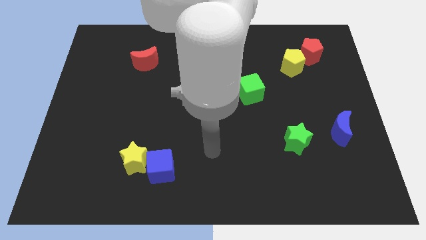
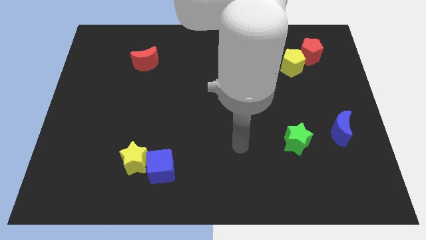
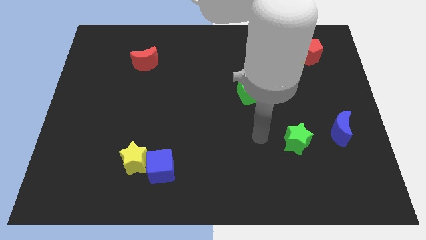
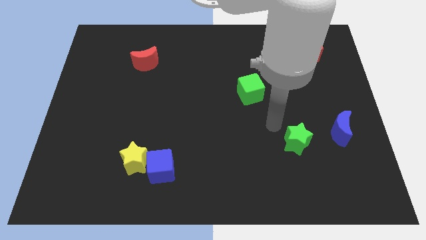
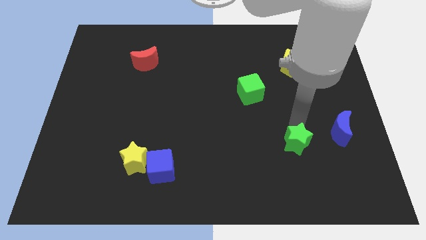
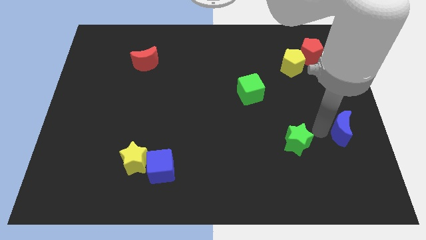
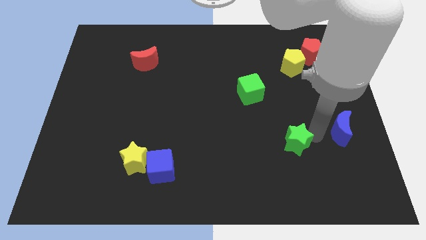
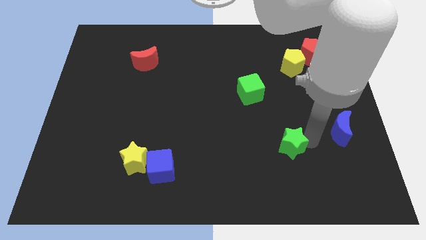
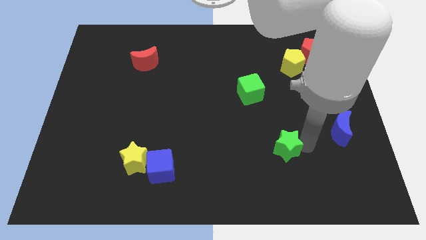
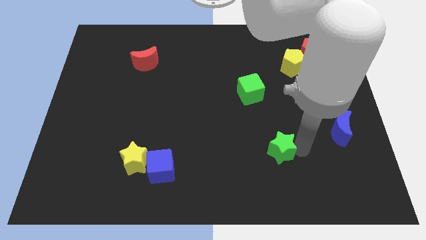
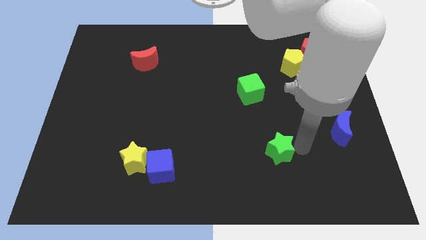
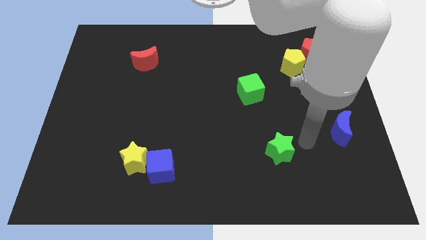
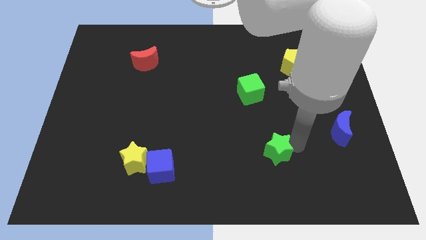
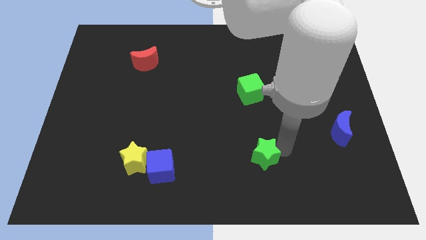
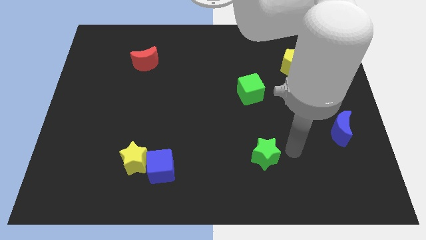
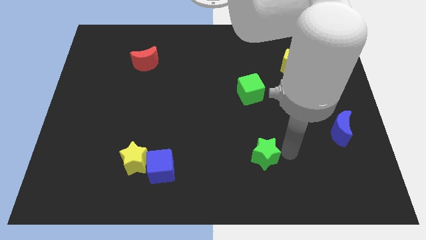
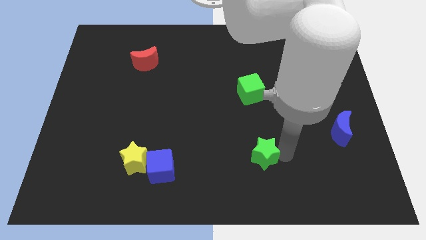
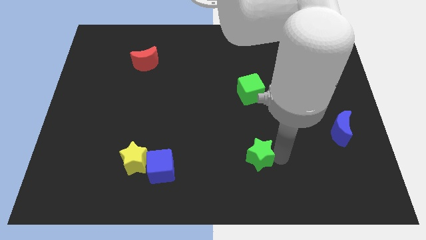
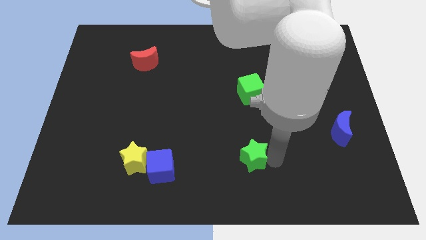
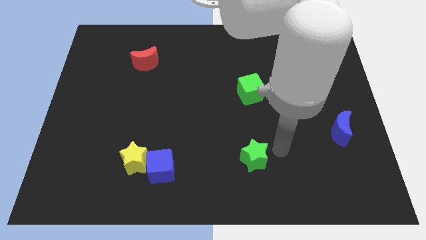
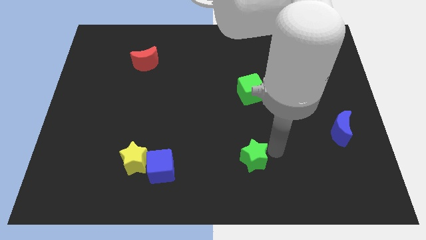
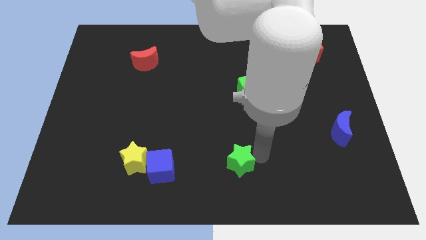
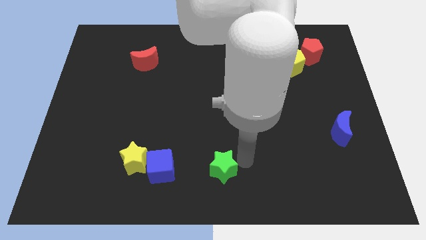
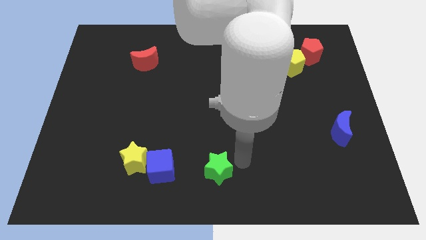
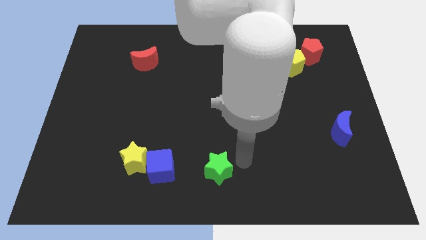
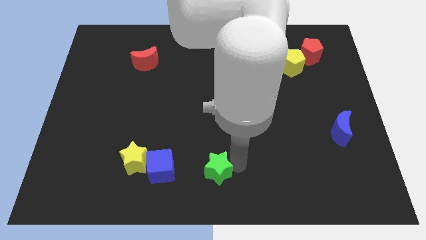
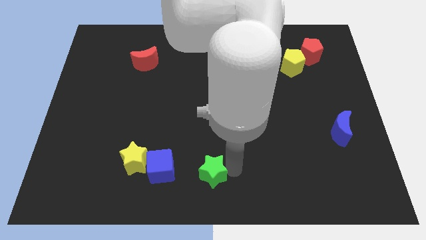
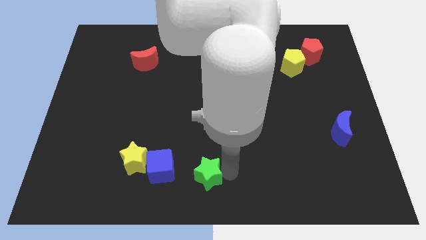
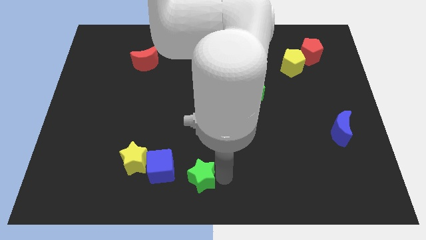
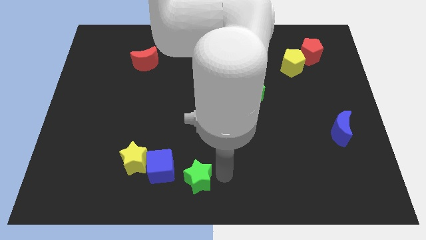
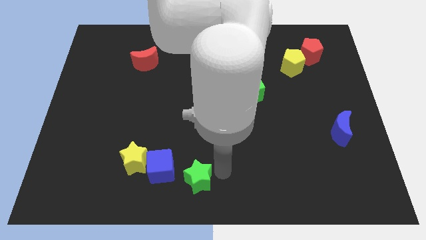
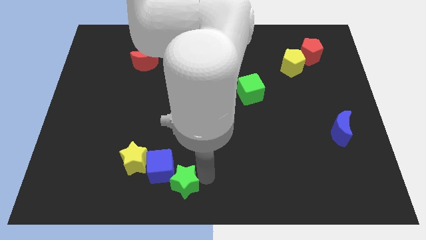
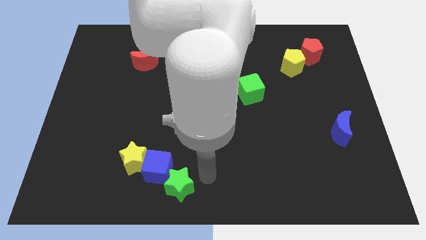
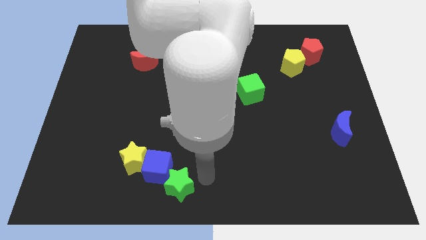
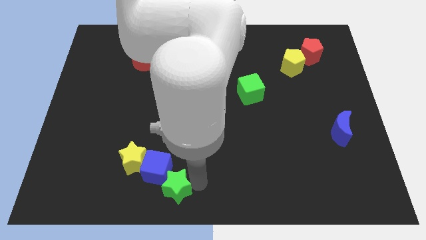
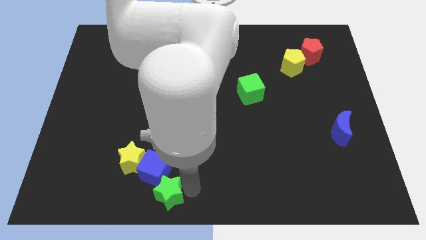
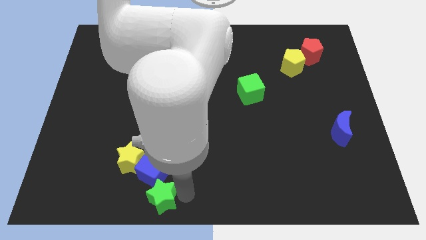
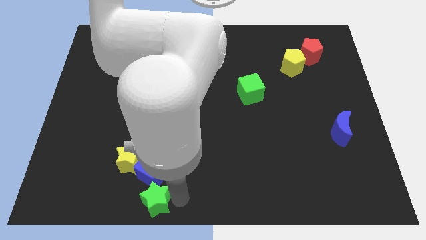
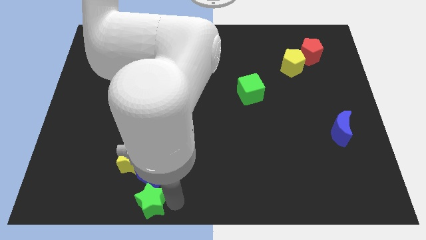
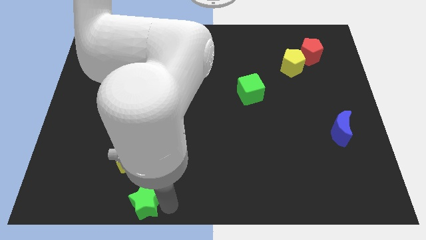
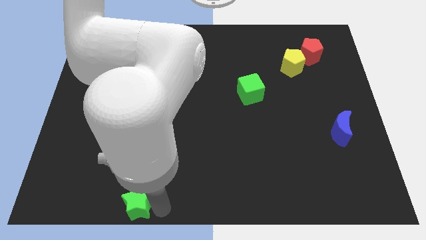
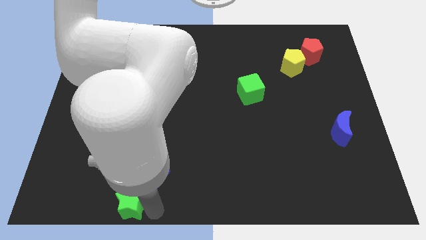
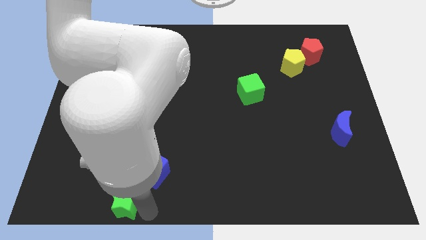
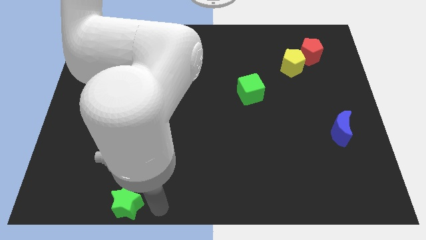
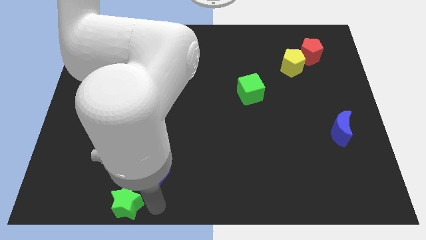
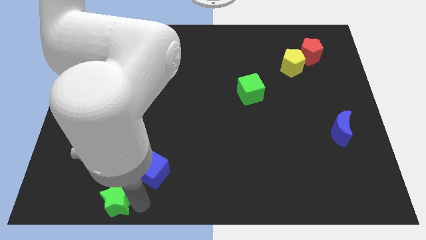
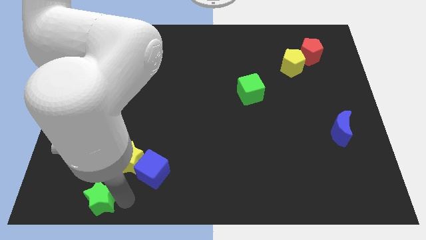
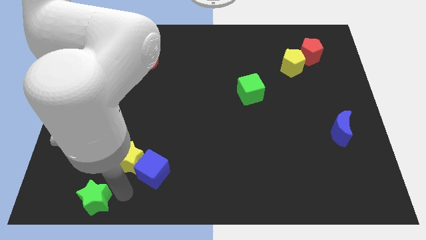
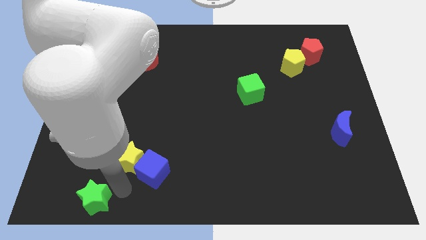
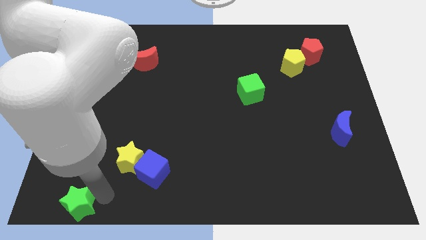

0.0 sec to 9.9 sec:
move the green star to the lower left corner

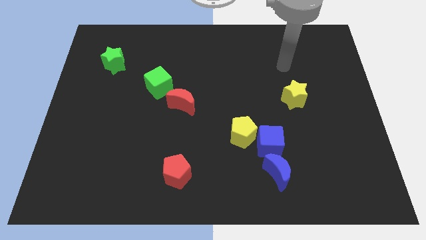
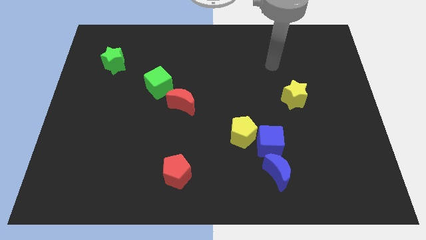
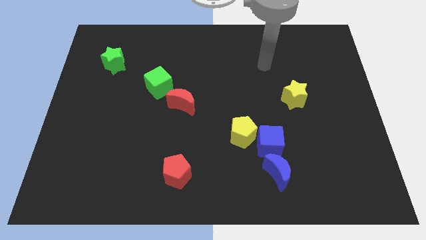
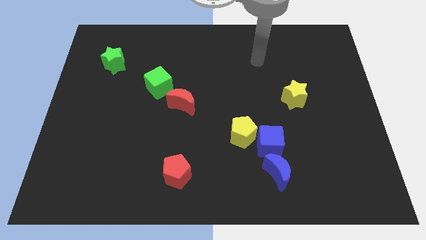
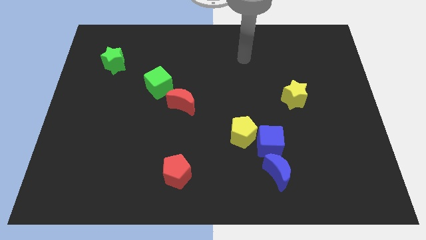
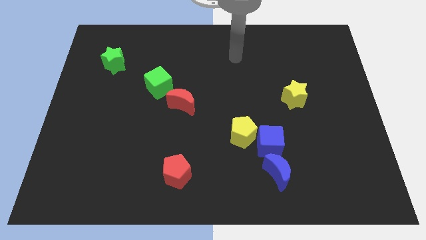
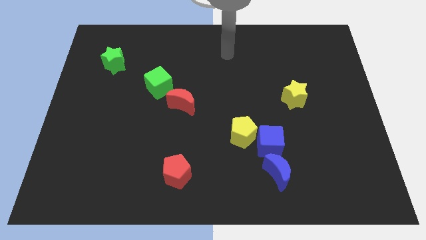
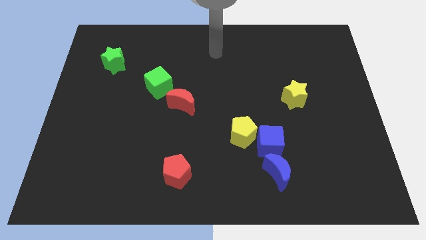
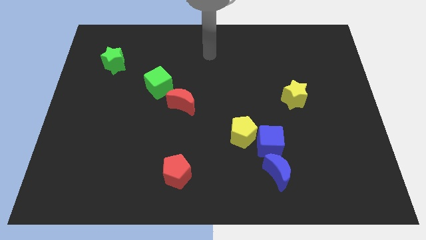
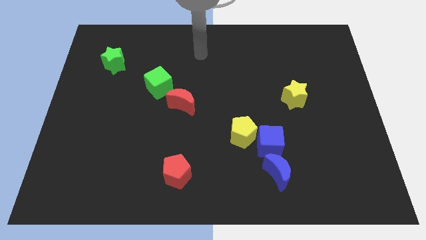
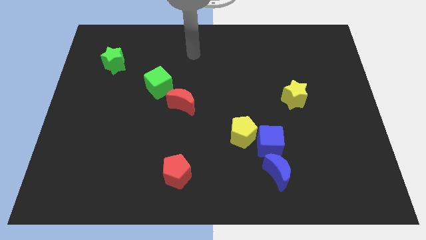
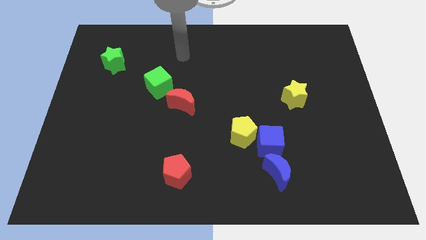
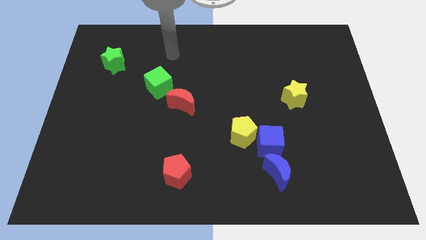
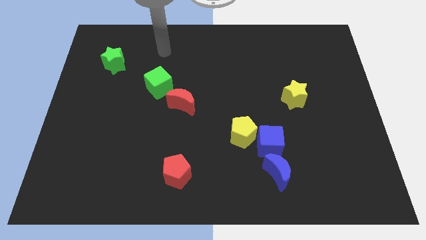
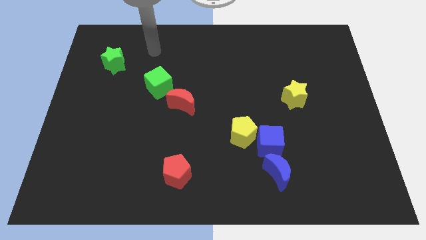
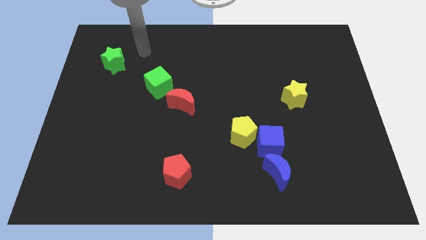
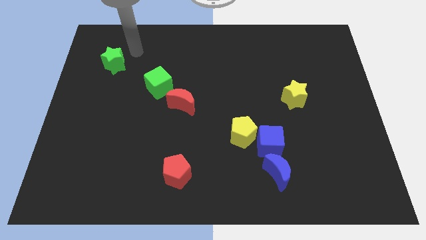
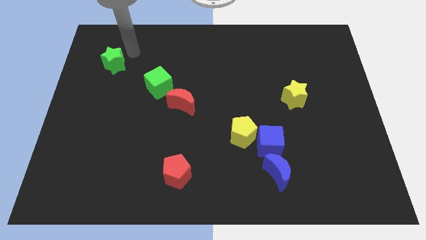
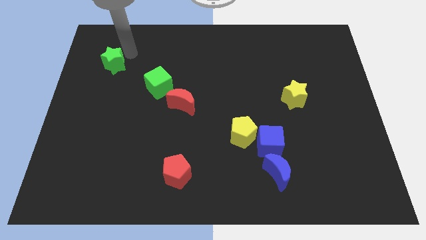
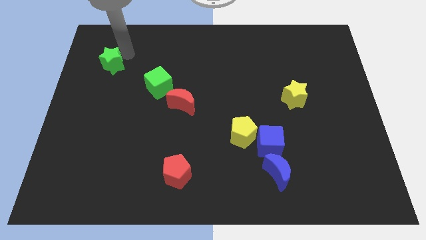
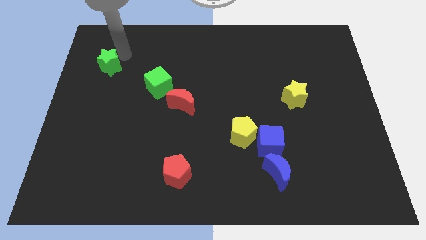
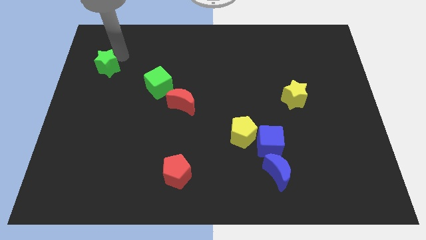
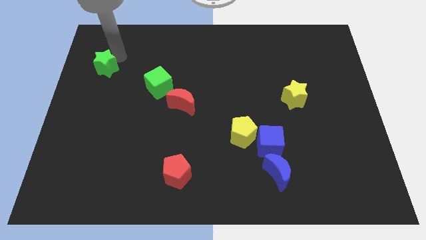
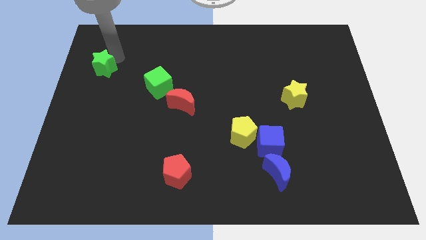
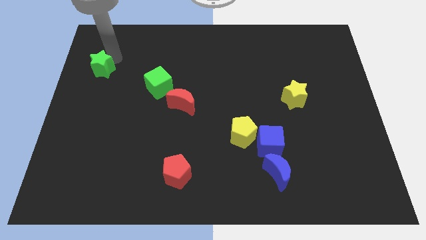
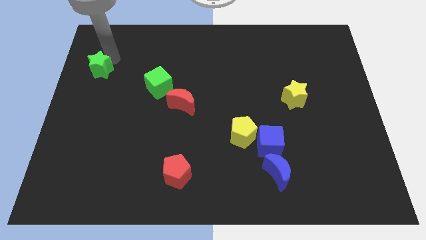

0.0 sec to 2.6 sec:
slide the green star to the left side of the board
